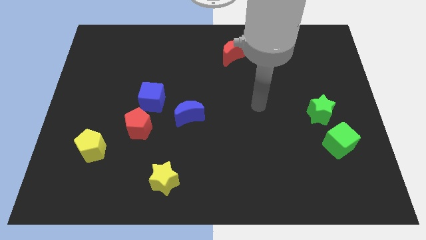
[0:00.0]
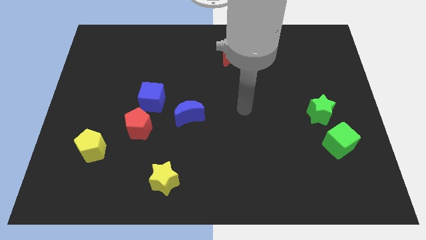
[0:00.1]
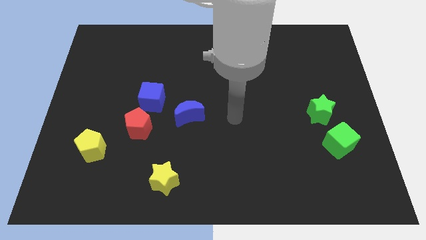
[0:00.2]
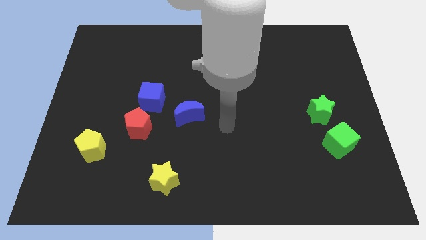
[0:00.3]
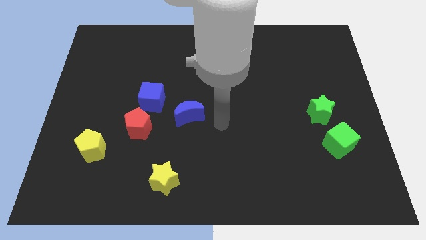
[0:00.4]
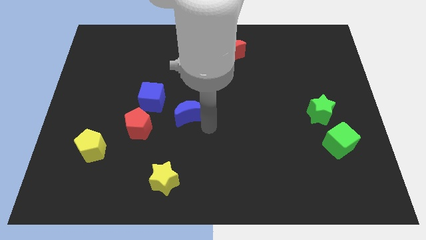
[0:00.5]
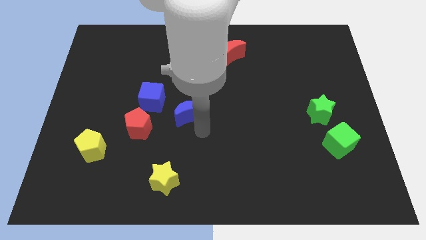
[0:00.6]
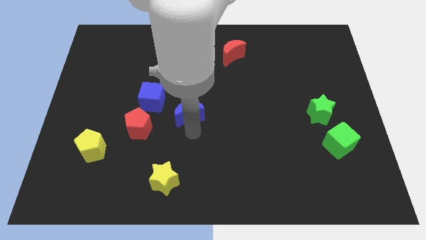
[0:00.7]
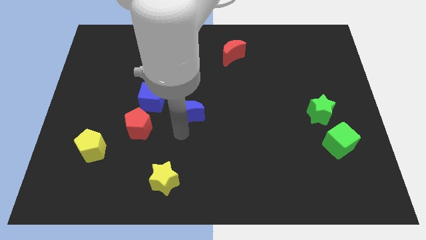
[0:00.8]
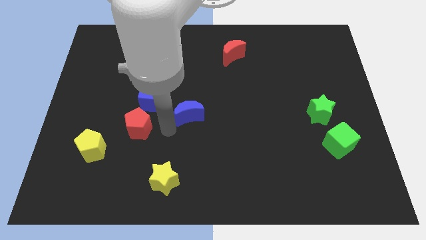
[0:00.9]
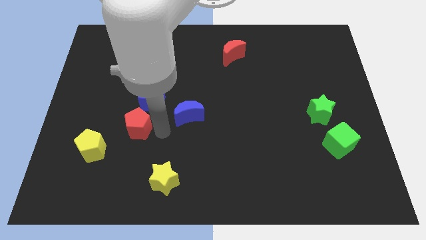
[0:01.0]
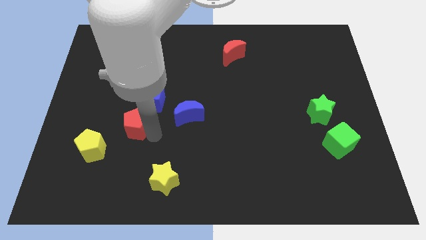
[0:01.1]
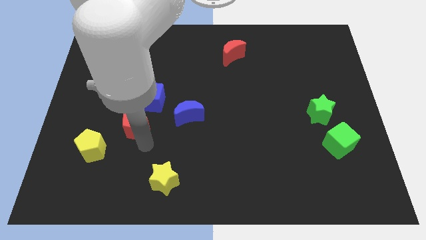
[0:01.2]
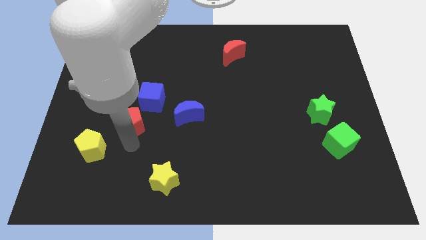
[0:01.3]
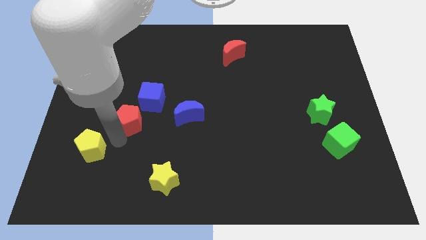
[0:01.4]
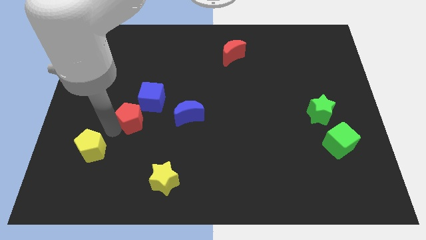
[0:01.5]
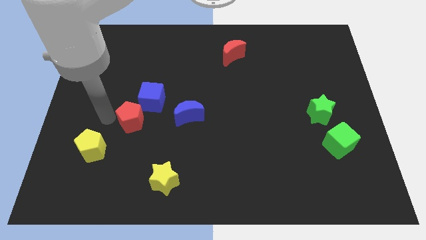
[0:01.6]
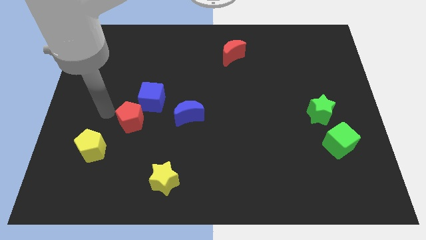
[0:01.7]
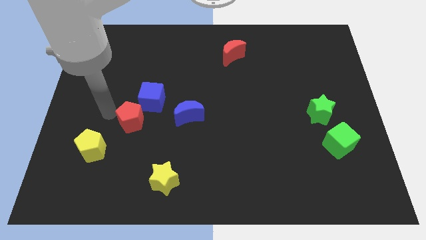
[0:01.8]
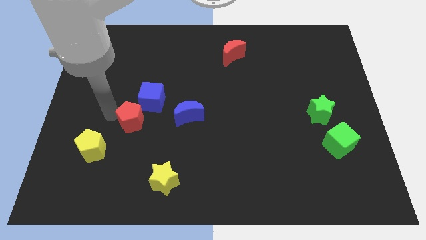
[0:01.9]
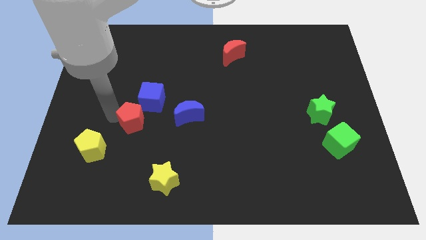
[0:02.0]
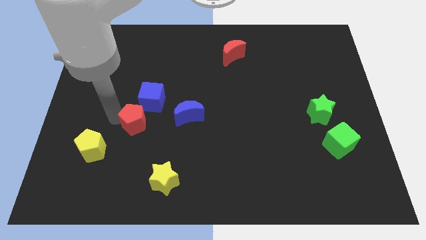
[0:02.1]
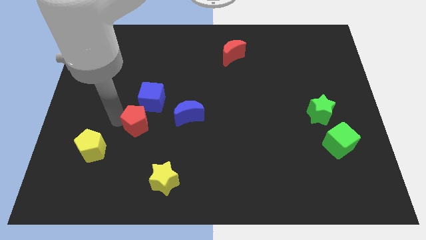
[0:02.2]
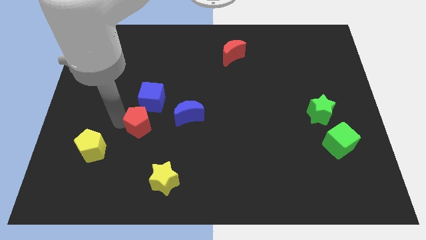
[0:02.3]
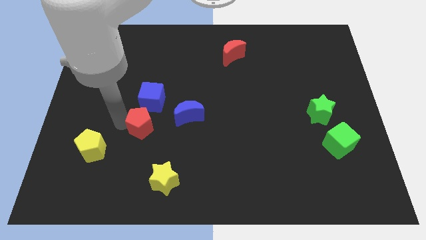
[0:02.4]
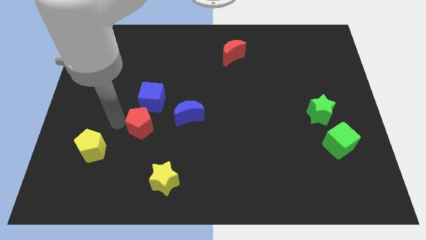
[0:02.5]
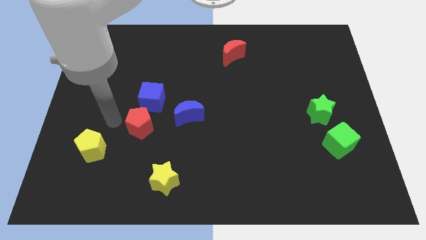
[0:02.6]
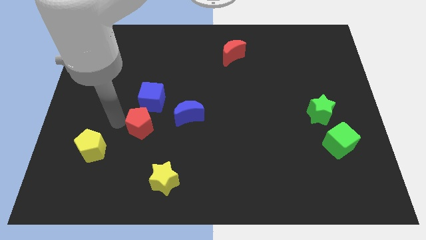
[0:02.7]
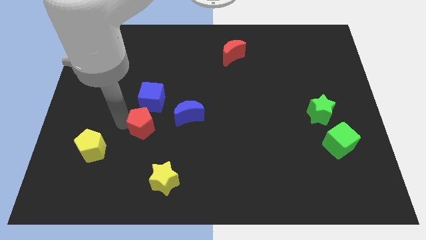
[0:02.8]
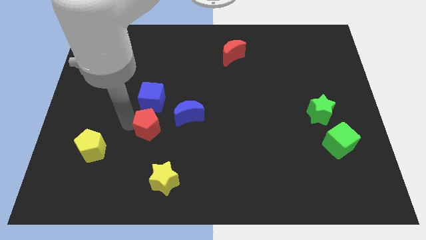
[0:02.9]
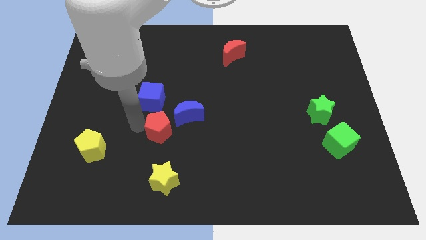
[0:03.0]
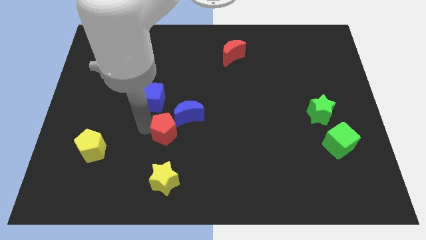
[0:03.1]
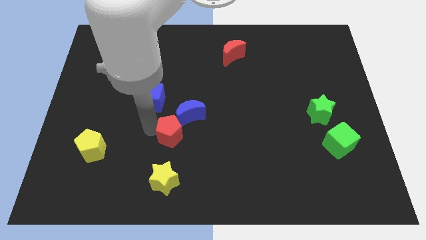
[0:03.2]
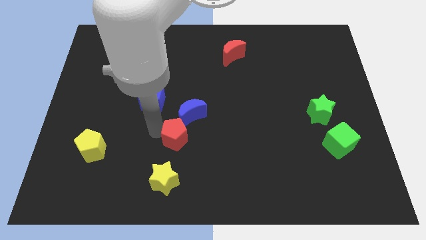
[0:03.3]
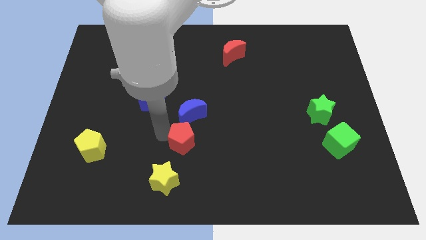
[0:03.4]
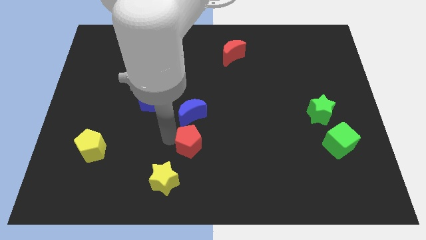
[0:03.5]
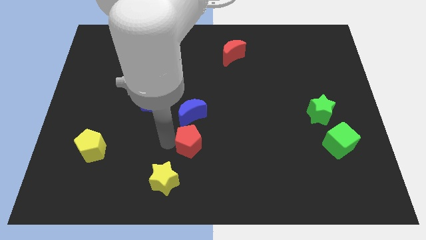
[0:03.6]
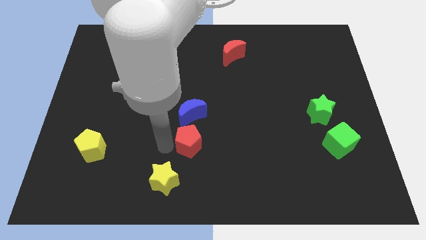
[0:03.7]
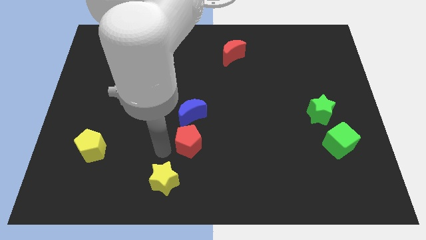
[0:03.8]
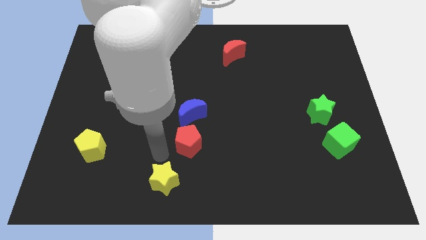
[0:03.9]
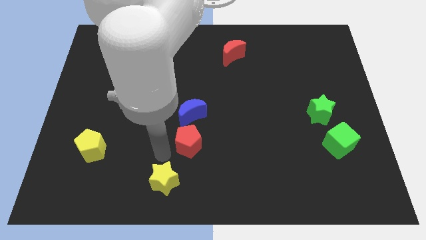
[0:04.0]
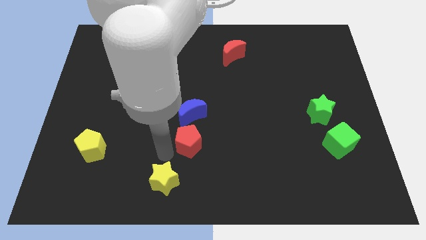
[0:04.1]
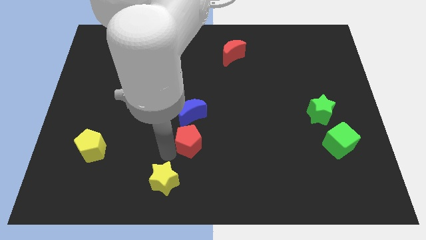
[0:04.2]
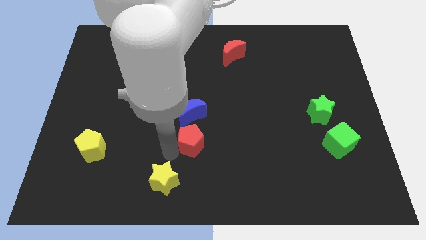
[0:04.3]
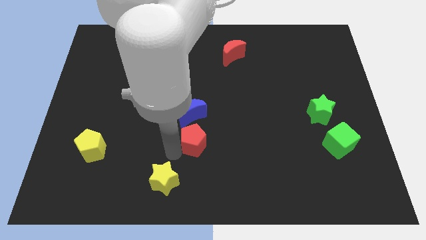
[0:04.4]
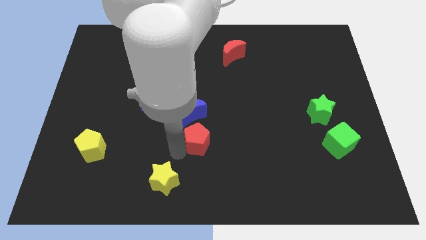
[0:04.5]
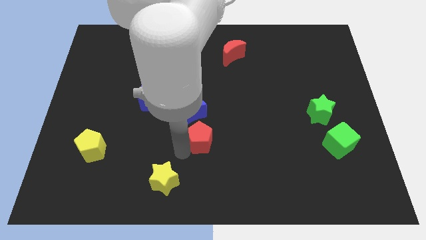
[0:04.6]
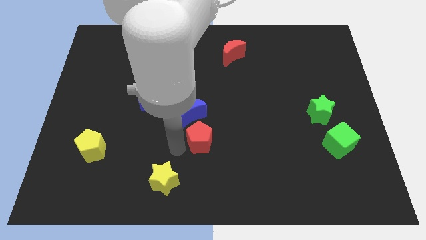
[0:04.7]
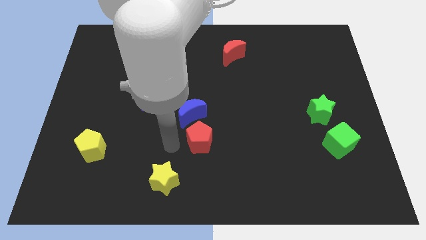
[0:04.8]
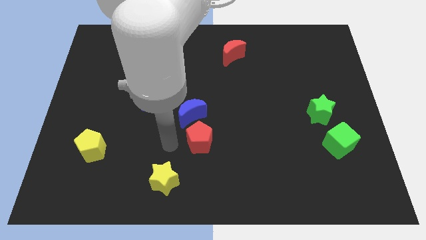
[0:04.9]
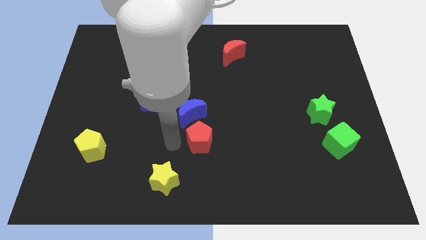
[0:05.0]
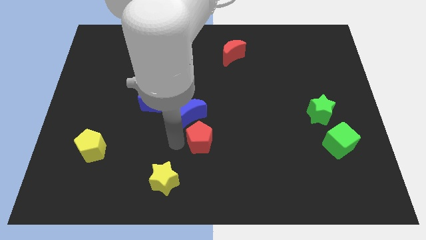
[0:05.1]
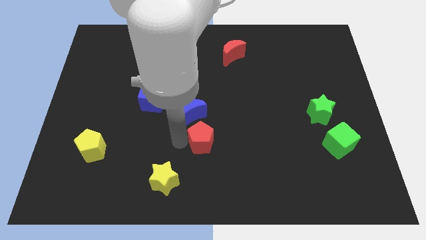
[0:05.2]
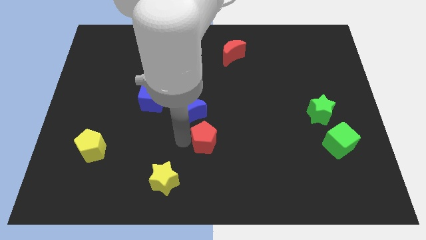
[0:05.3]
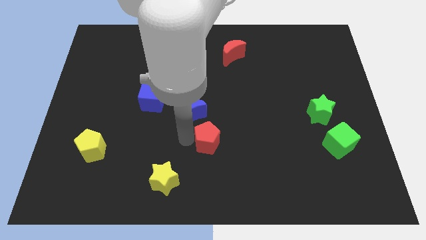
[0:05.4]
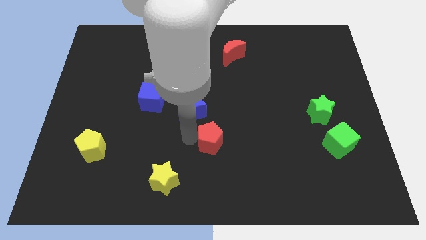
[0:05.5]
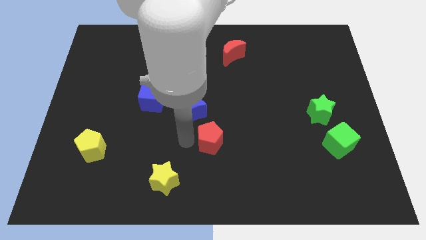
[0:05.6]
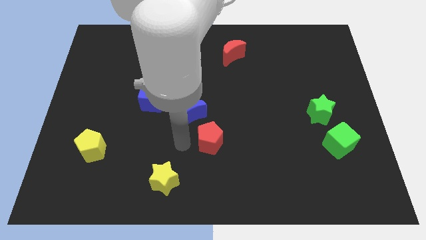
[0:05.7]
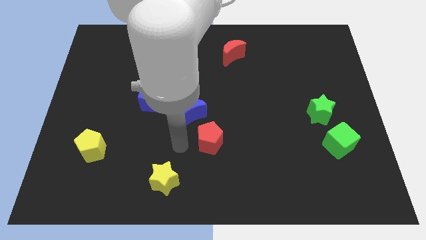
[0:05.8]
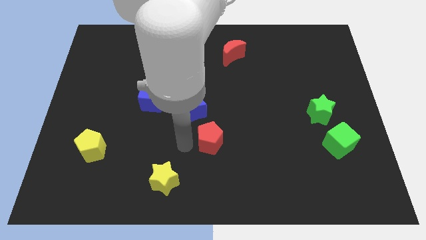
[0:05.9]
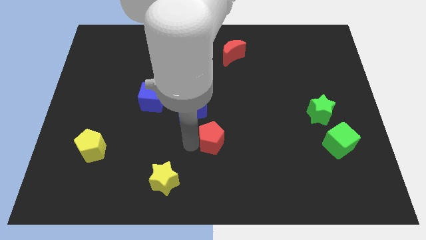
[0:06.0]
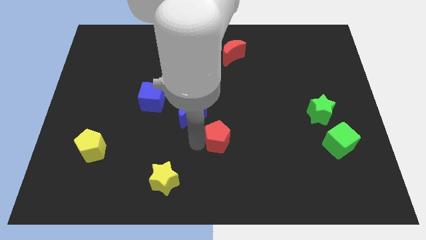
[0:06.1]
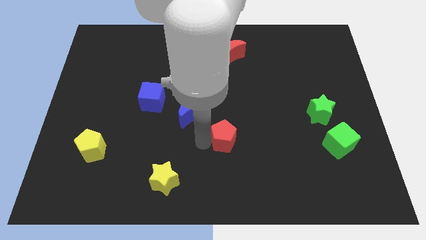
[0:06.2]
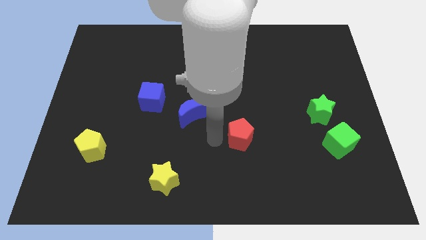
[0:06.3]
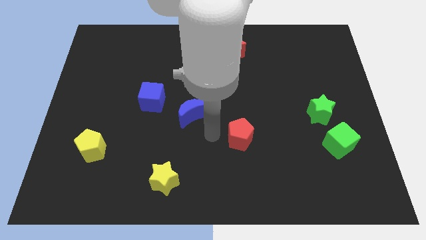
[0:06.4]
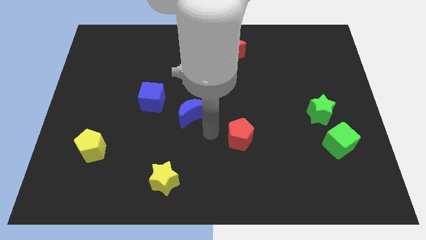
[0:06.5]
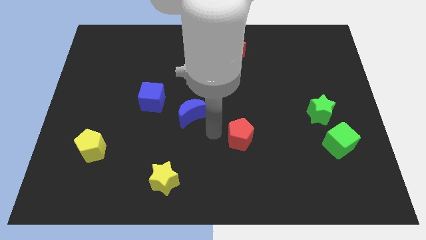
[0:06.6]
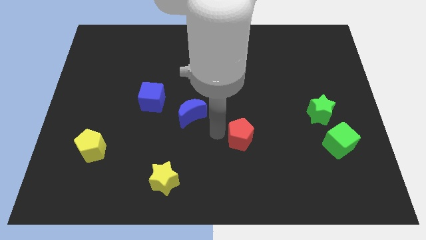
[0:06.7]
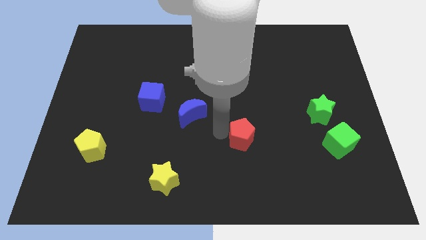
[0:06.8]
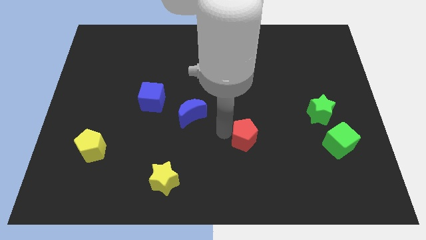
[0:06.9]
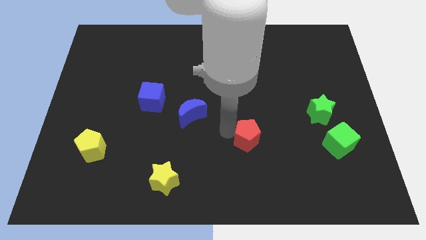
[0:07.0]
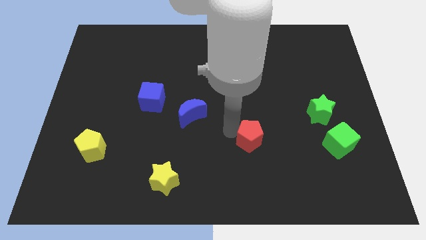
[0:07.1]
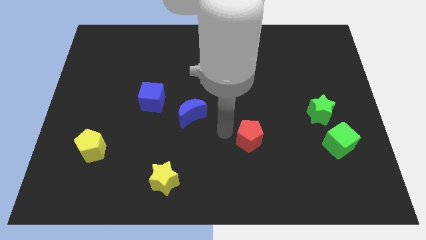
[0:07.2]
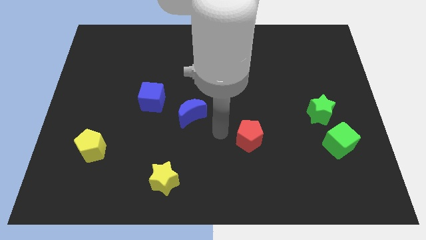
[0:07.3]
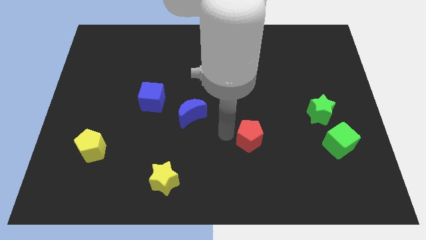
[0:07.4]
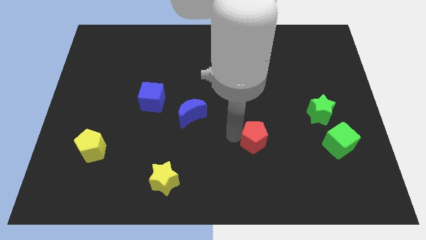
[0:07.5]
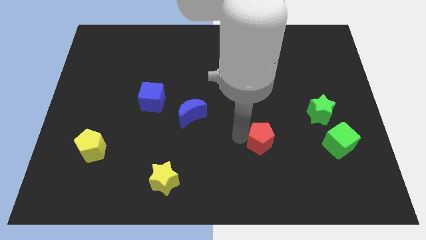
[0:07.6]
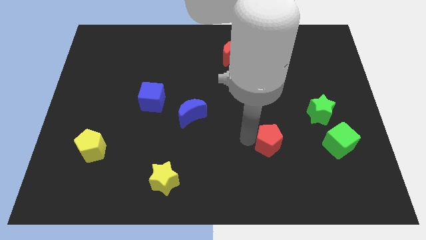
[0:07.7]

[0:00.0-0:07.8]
push the red pentagon to the left of the green cube
